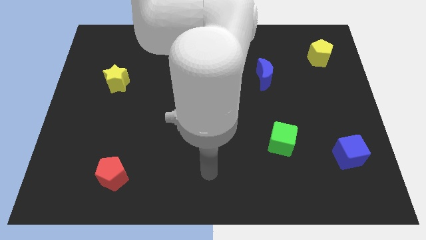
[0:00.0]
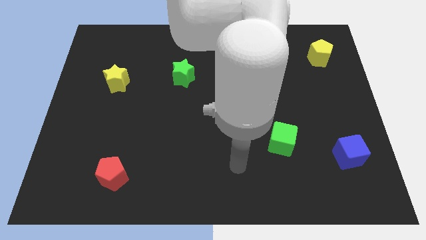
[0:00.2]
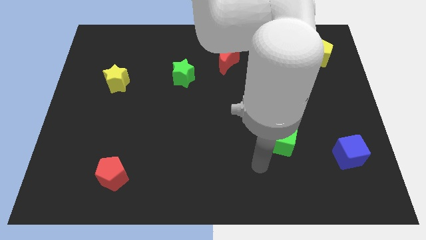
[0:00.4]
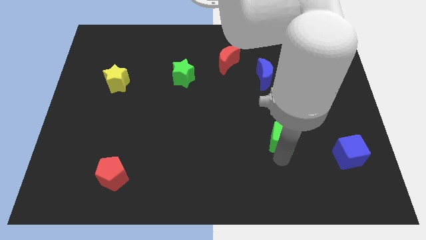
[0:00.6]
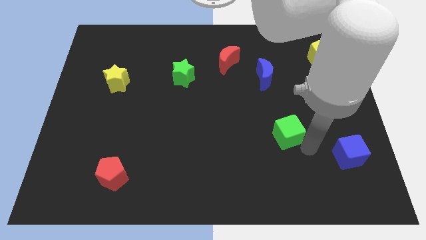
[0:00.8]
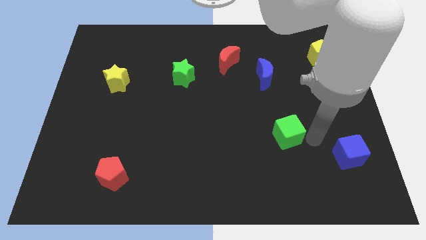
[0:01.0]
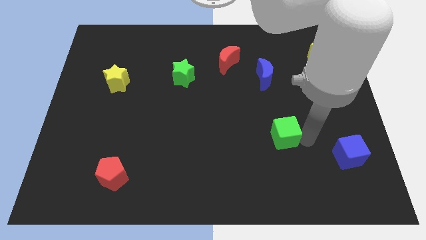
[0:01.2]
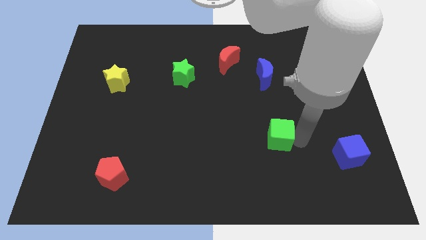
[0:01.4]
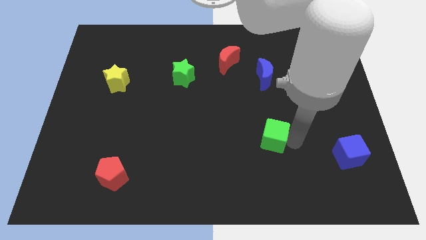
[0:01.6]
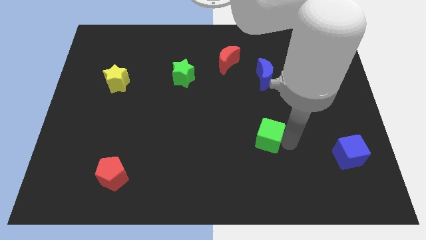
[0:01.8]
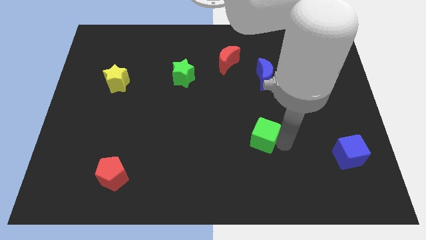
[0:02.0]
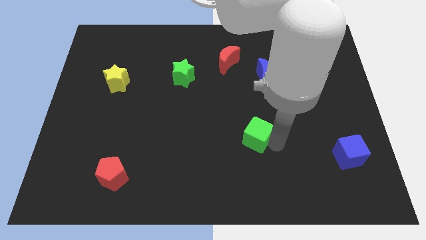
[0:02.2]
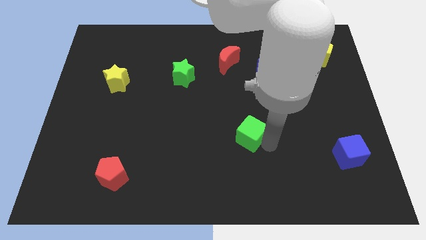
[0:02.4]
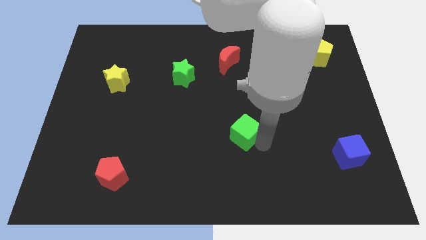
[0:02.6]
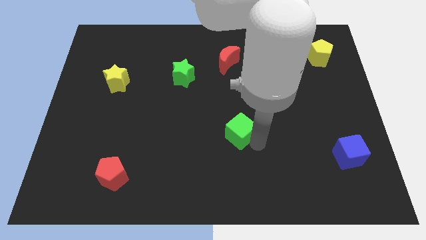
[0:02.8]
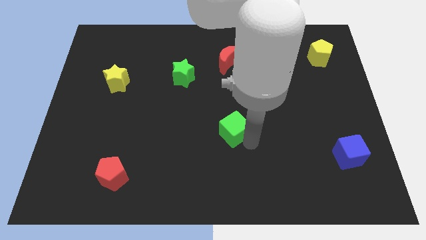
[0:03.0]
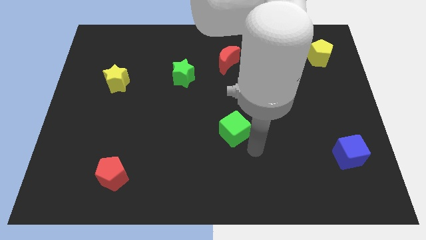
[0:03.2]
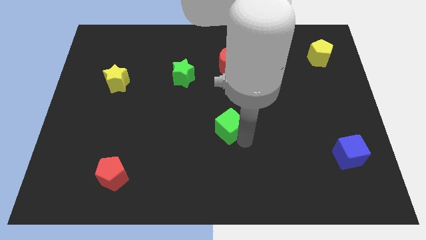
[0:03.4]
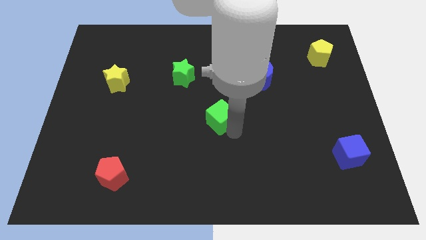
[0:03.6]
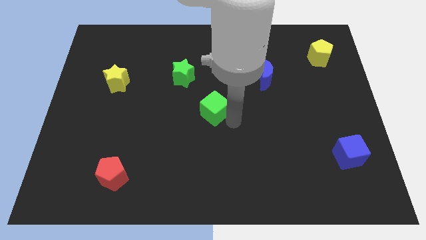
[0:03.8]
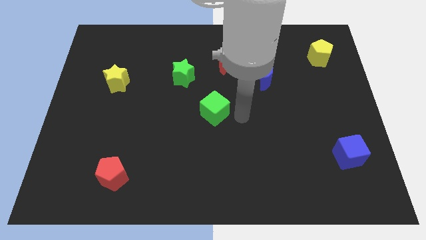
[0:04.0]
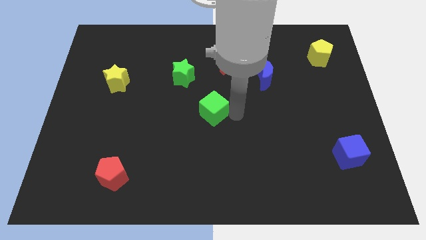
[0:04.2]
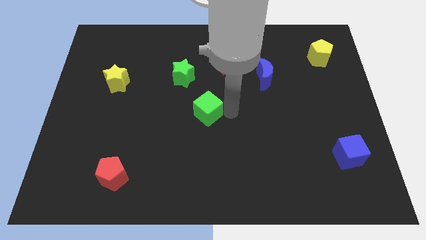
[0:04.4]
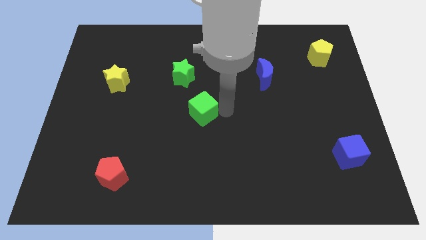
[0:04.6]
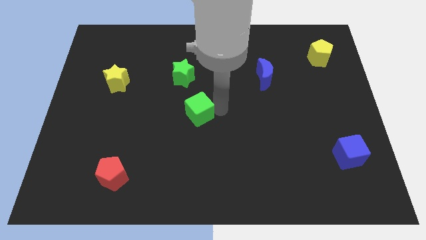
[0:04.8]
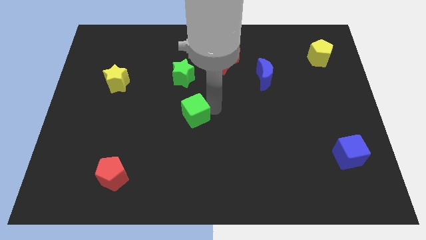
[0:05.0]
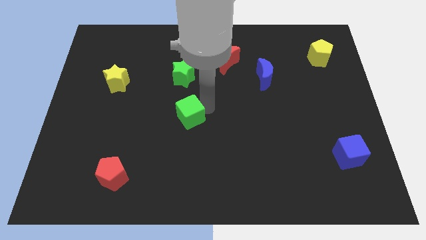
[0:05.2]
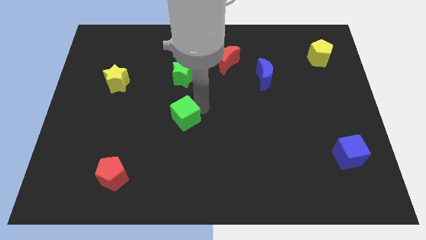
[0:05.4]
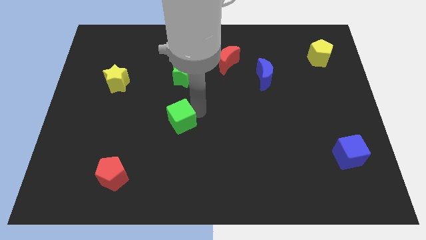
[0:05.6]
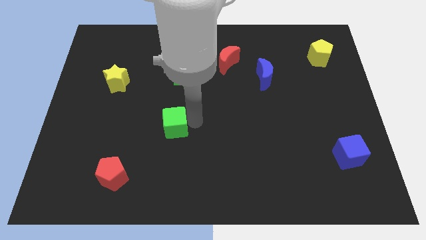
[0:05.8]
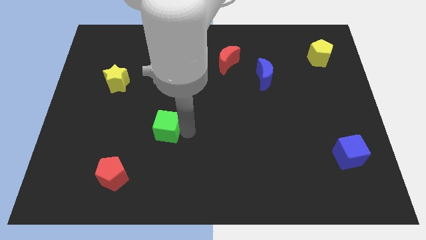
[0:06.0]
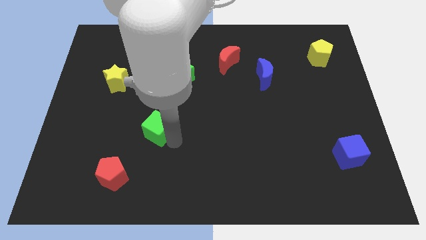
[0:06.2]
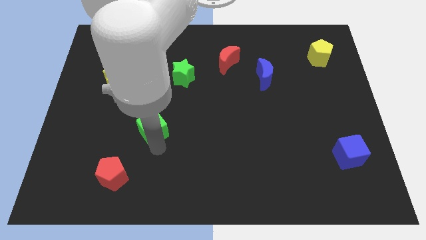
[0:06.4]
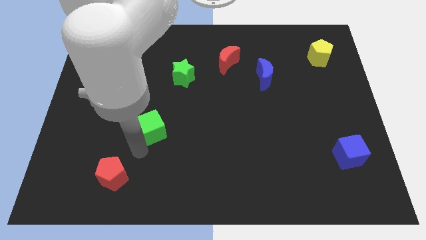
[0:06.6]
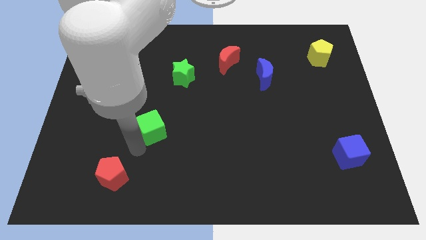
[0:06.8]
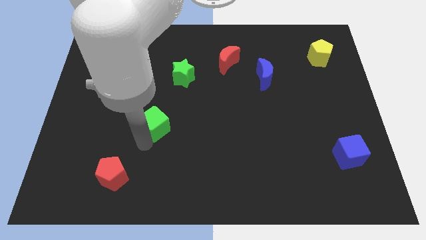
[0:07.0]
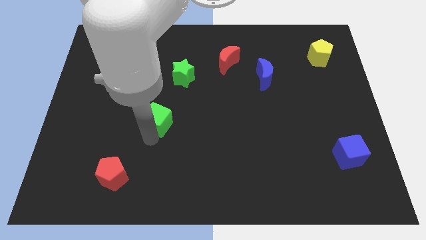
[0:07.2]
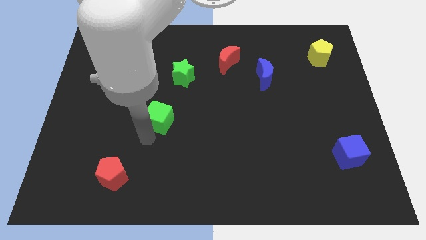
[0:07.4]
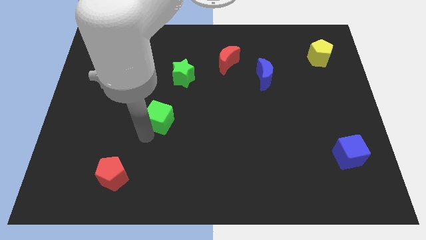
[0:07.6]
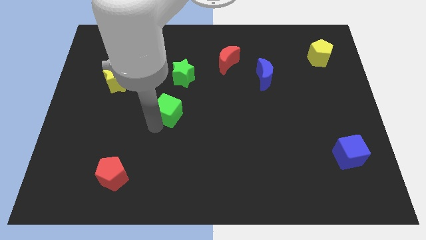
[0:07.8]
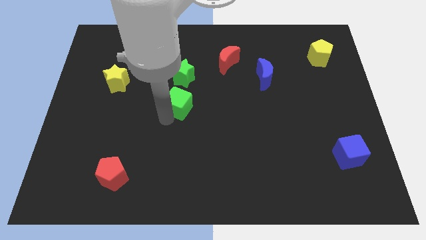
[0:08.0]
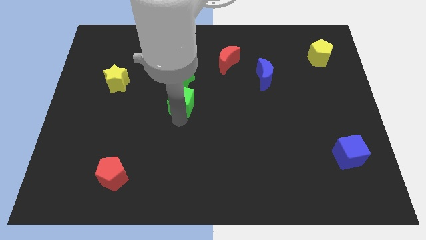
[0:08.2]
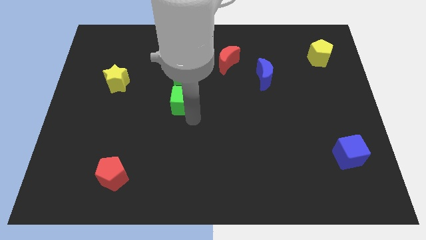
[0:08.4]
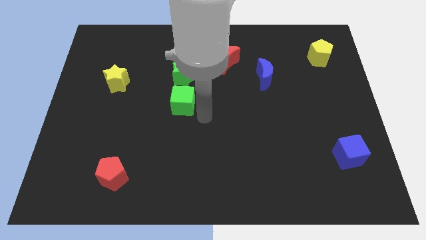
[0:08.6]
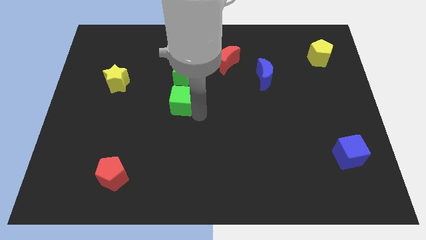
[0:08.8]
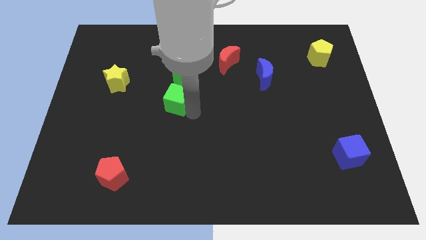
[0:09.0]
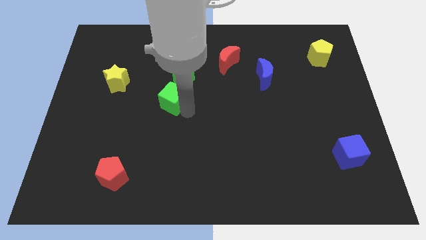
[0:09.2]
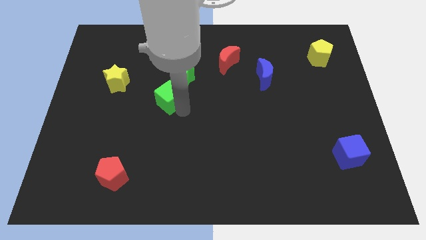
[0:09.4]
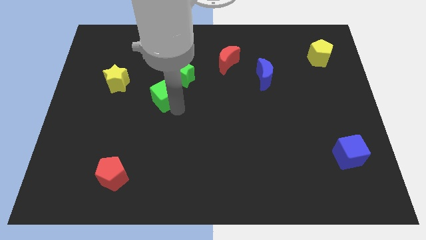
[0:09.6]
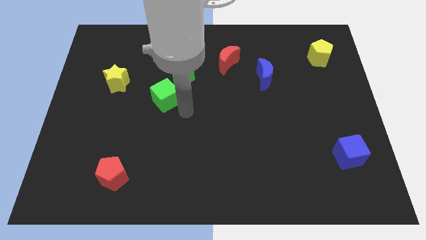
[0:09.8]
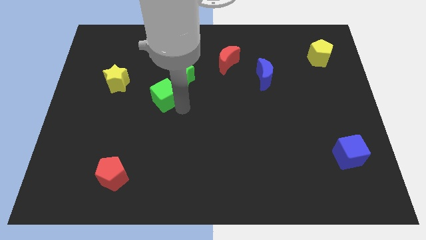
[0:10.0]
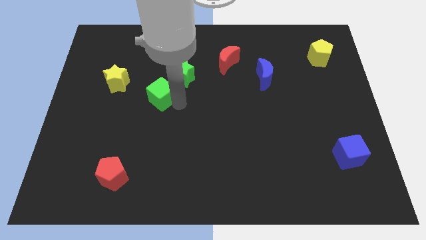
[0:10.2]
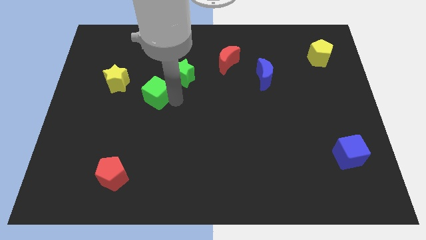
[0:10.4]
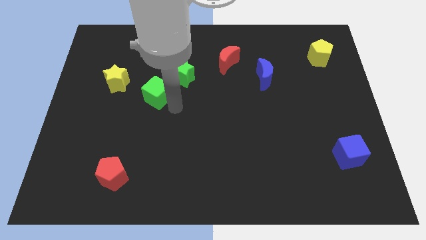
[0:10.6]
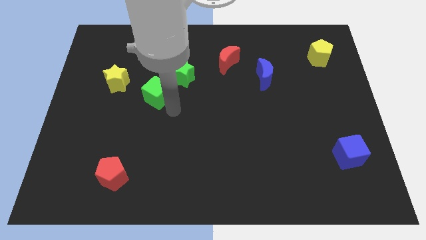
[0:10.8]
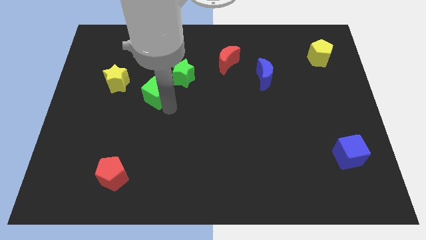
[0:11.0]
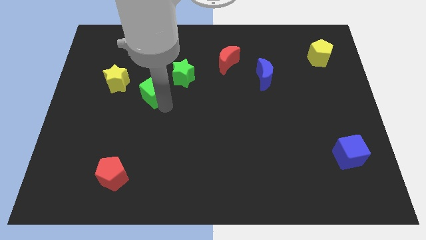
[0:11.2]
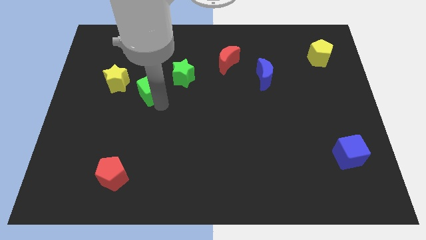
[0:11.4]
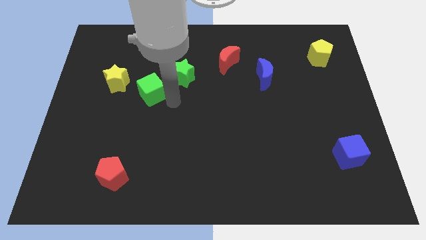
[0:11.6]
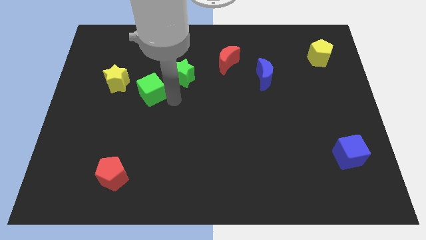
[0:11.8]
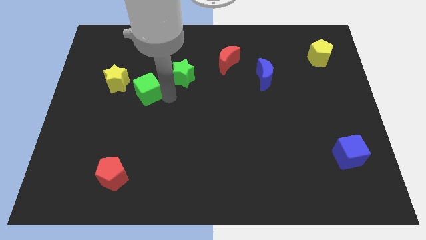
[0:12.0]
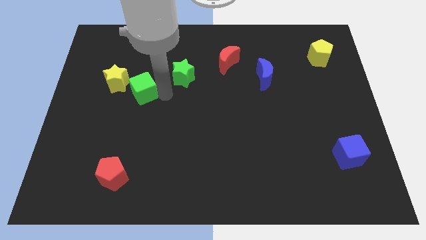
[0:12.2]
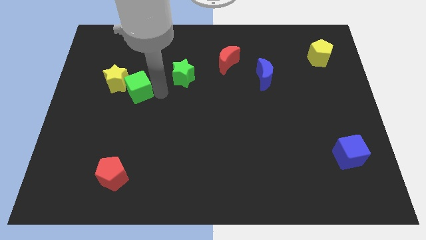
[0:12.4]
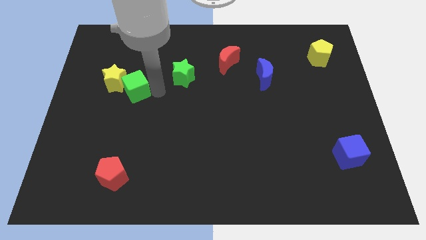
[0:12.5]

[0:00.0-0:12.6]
push the green cube to the yellow star

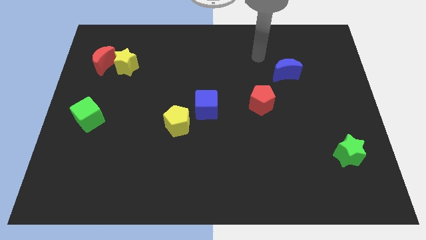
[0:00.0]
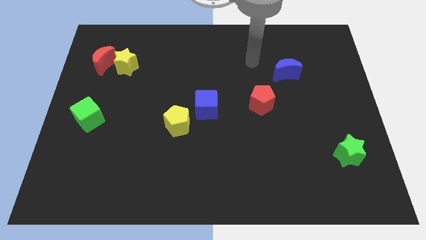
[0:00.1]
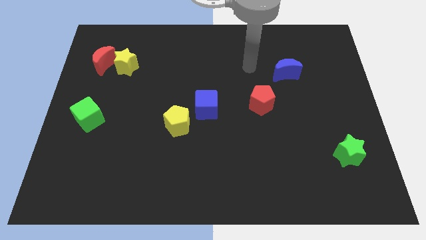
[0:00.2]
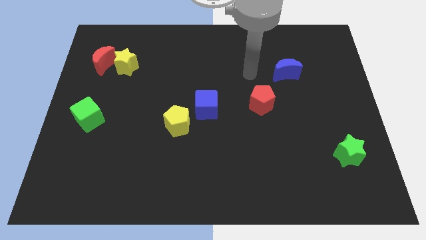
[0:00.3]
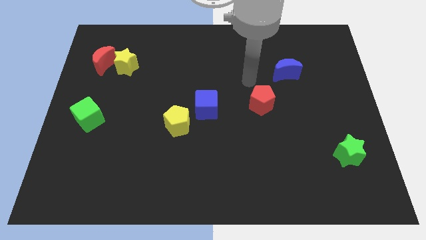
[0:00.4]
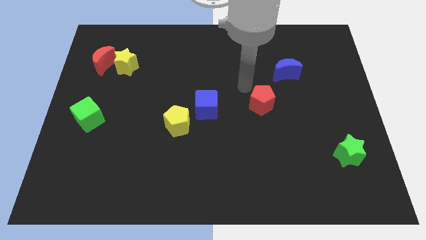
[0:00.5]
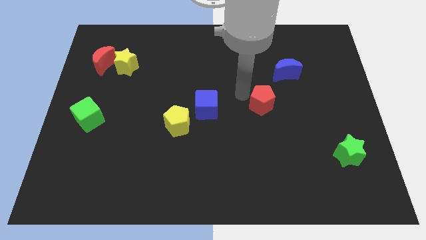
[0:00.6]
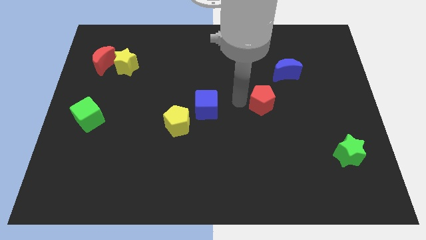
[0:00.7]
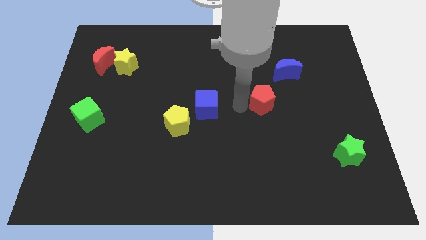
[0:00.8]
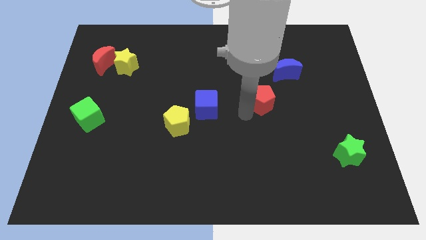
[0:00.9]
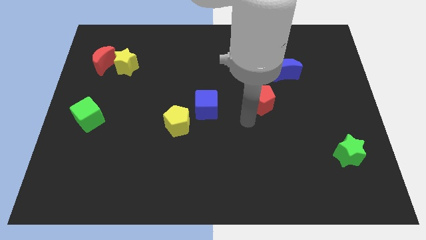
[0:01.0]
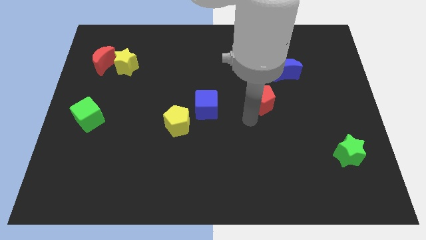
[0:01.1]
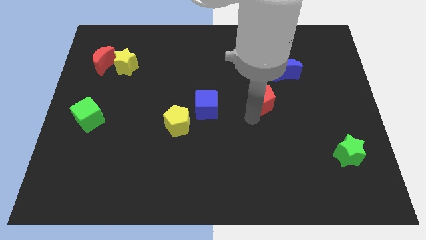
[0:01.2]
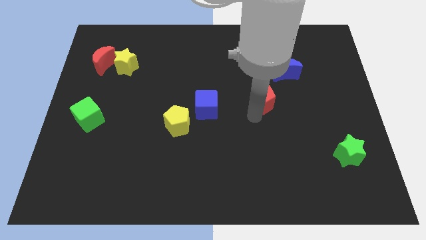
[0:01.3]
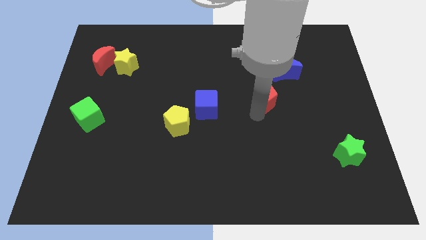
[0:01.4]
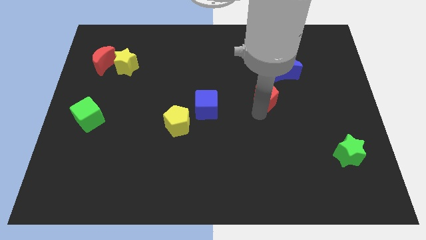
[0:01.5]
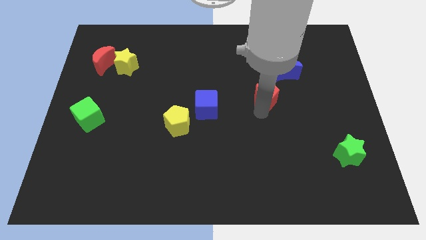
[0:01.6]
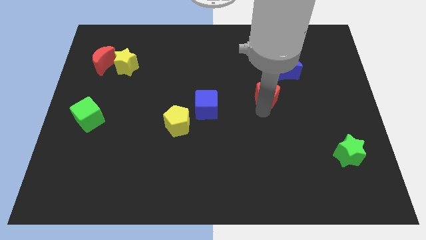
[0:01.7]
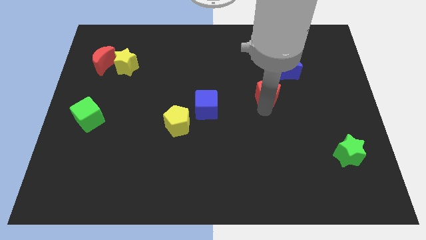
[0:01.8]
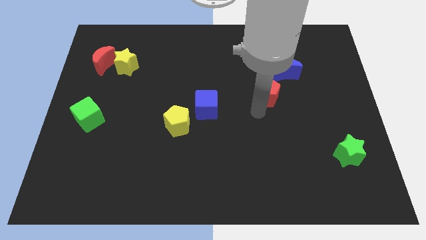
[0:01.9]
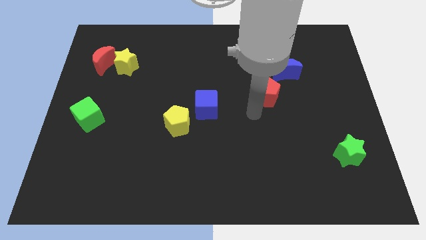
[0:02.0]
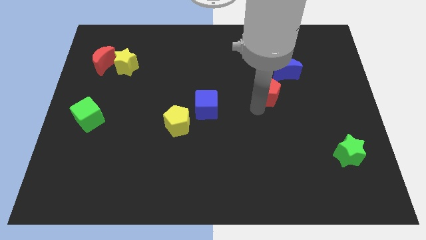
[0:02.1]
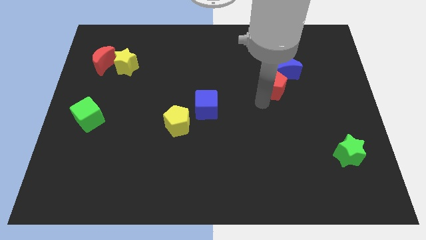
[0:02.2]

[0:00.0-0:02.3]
slide the red pentagon towards the blue moon
